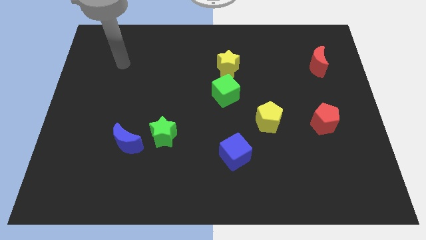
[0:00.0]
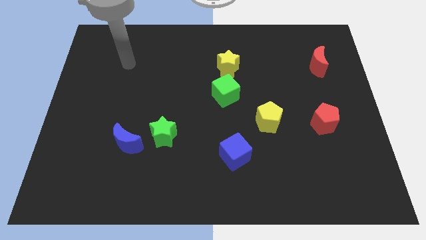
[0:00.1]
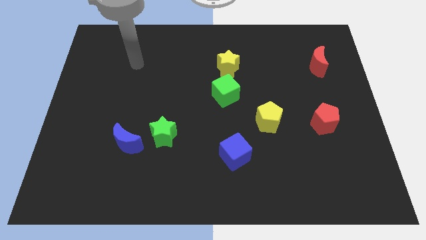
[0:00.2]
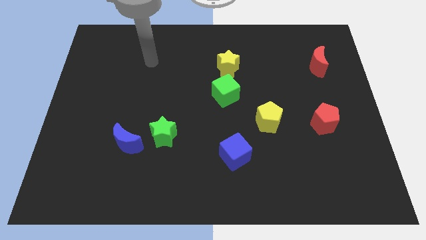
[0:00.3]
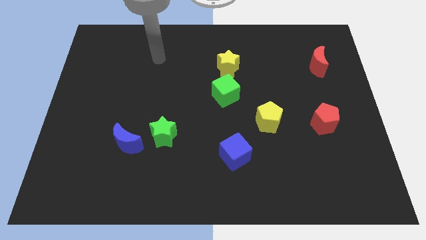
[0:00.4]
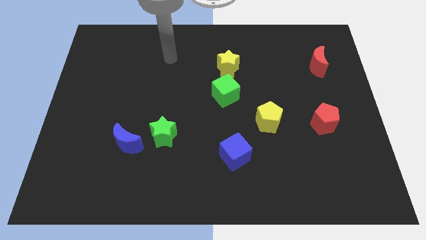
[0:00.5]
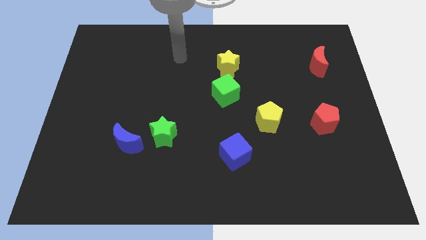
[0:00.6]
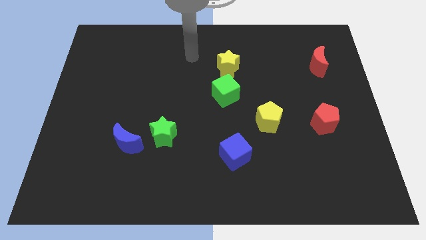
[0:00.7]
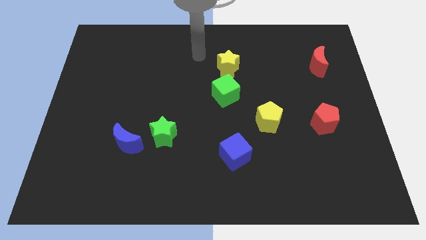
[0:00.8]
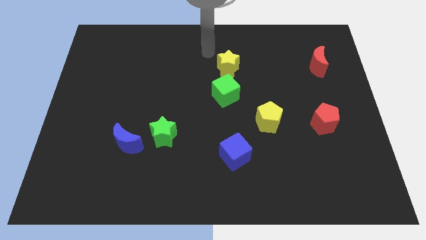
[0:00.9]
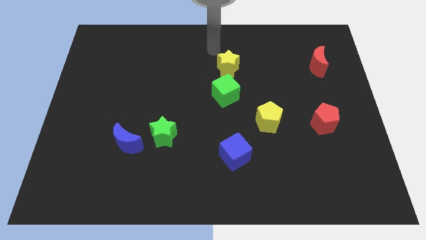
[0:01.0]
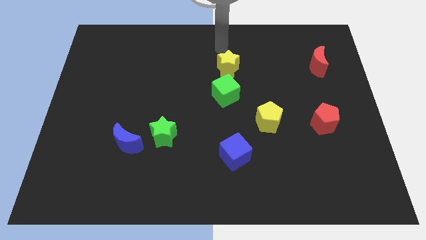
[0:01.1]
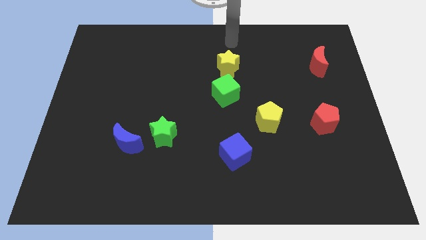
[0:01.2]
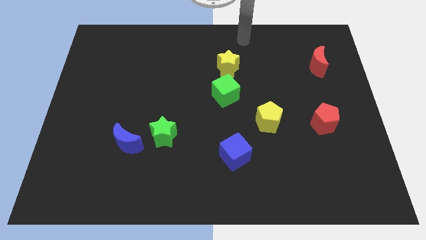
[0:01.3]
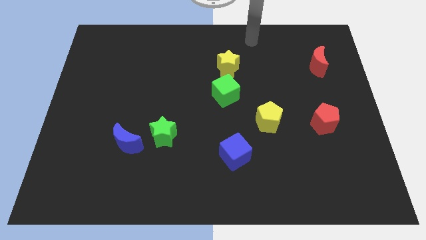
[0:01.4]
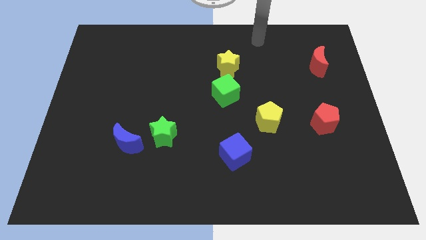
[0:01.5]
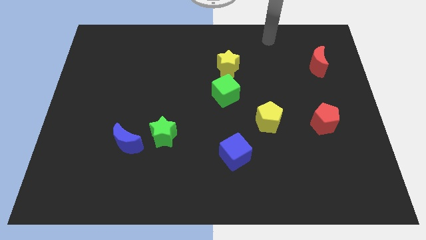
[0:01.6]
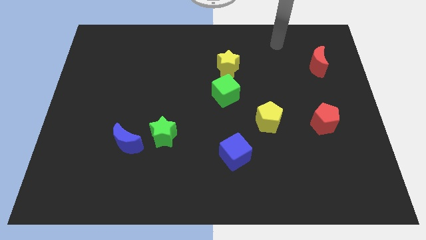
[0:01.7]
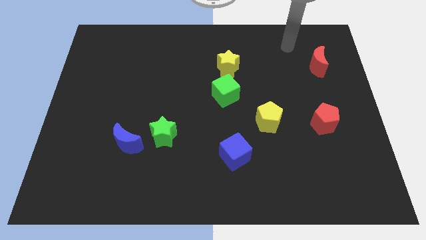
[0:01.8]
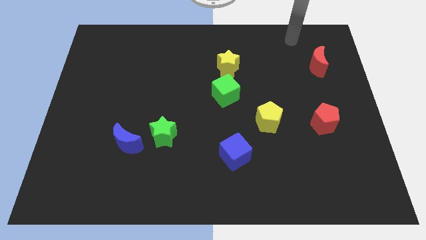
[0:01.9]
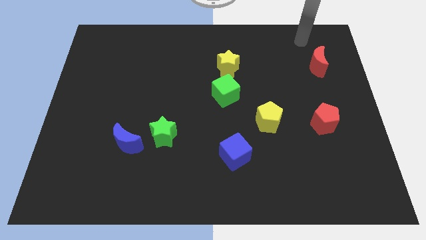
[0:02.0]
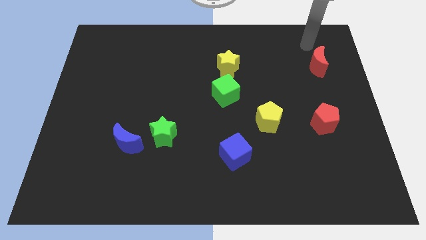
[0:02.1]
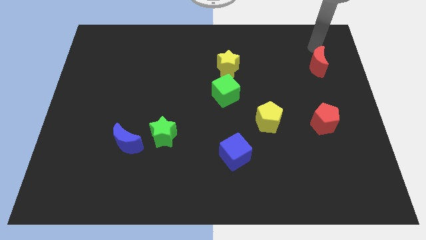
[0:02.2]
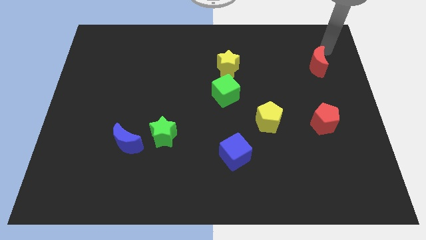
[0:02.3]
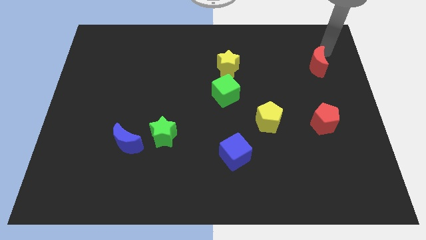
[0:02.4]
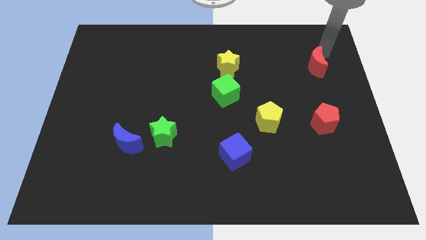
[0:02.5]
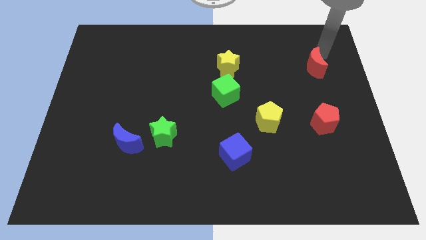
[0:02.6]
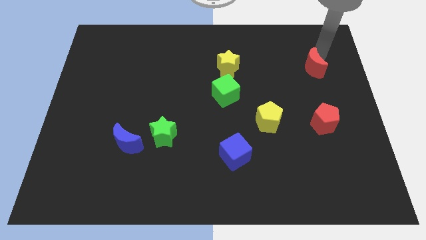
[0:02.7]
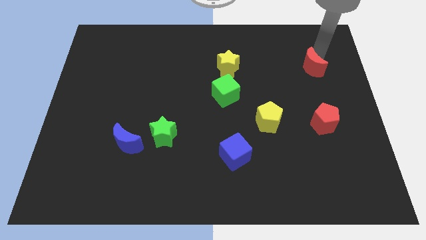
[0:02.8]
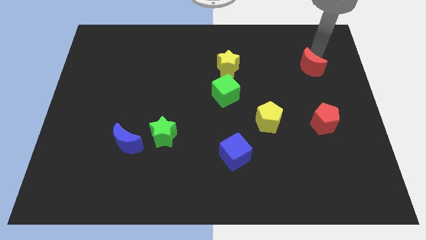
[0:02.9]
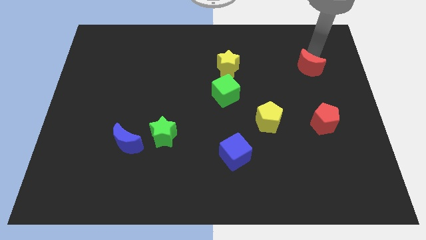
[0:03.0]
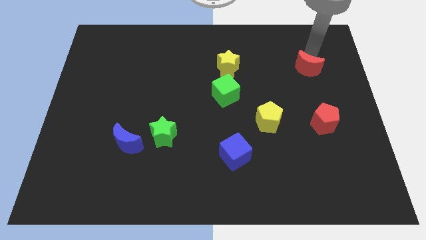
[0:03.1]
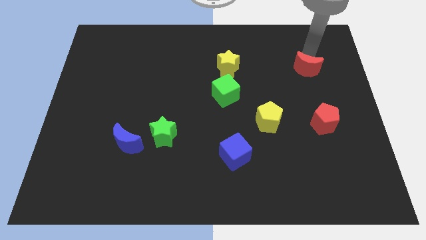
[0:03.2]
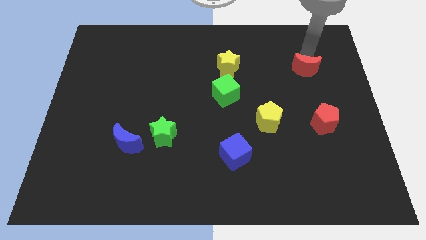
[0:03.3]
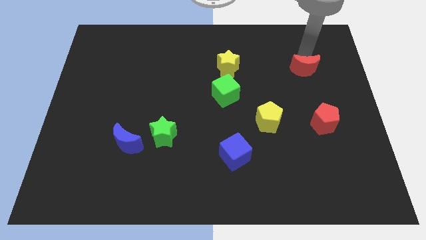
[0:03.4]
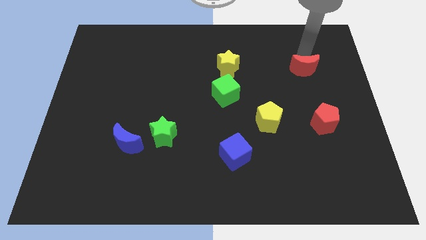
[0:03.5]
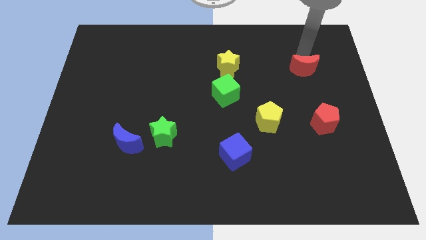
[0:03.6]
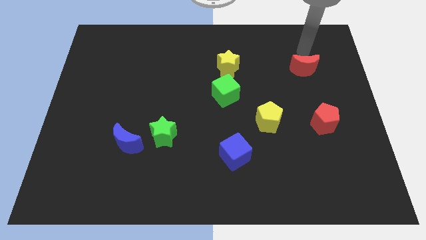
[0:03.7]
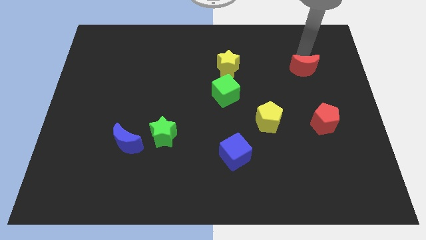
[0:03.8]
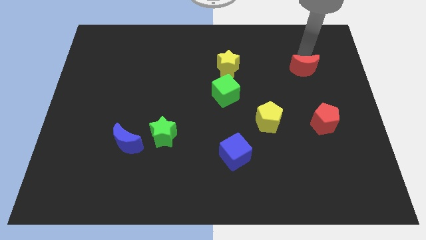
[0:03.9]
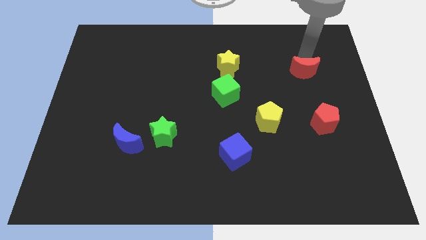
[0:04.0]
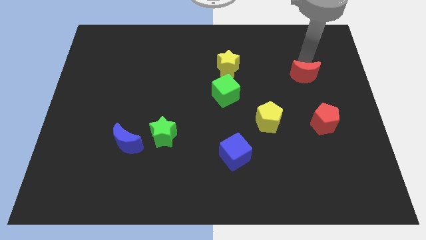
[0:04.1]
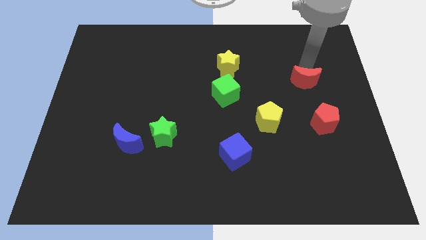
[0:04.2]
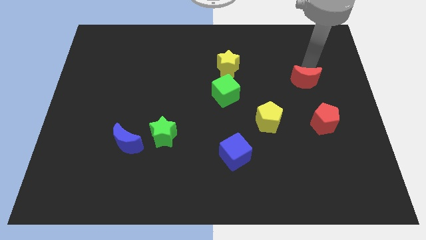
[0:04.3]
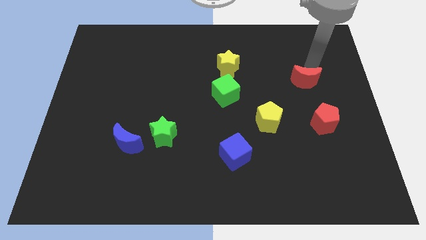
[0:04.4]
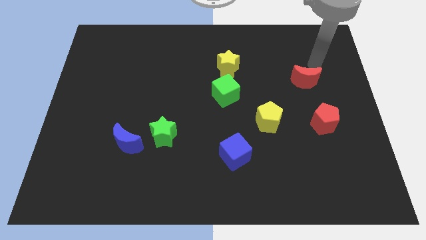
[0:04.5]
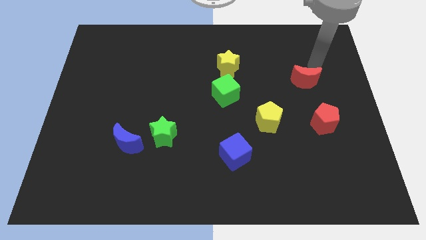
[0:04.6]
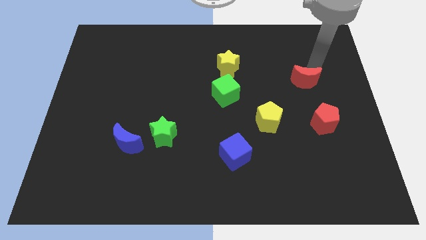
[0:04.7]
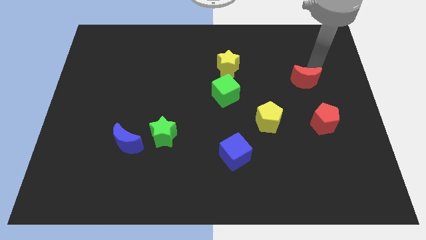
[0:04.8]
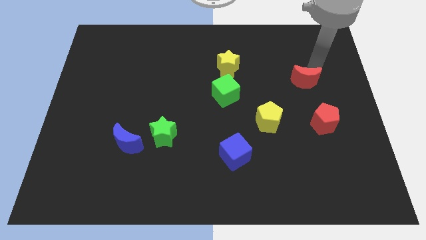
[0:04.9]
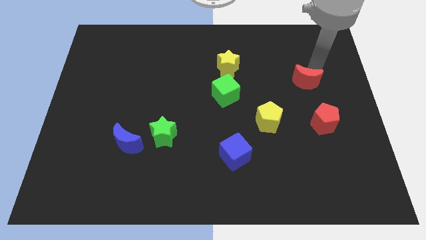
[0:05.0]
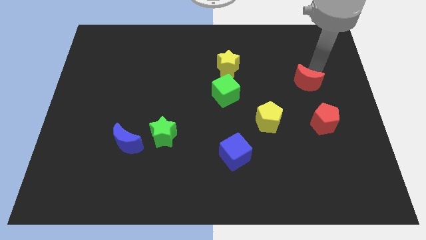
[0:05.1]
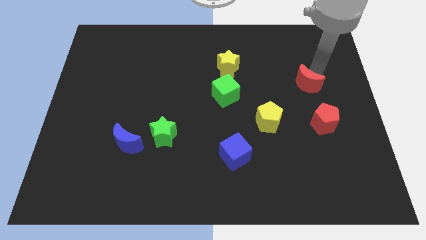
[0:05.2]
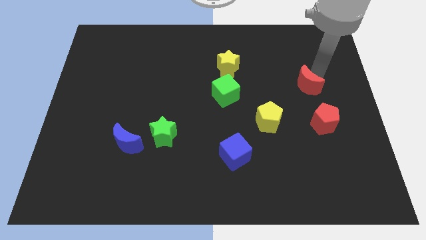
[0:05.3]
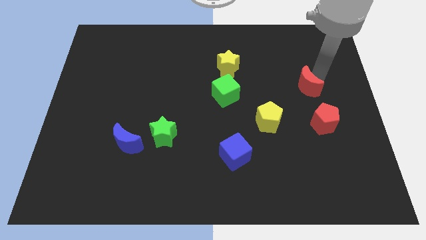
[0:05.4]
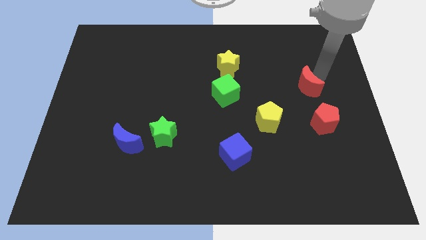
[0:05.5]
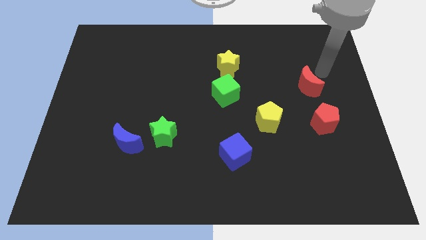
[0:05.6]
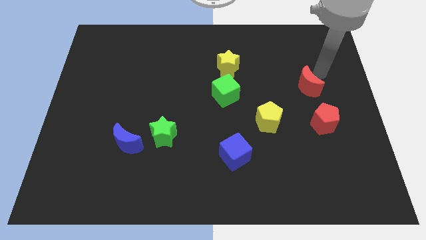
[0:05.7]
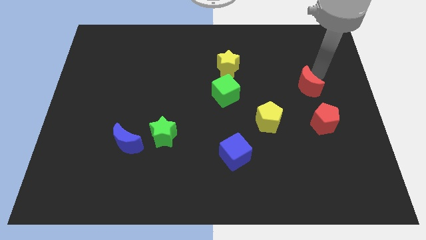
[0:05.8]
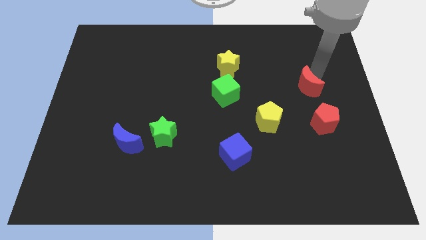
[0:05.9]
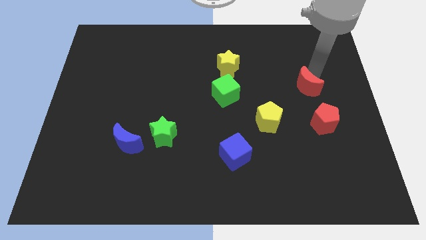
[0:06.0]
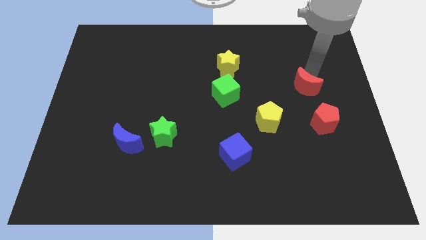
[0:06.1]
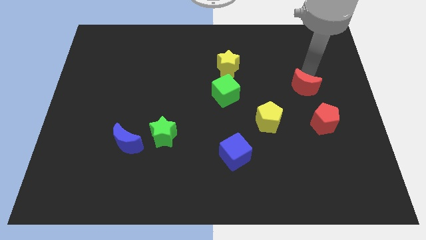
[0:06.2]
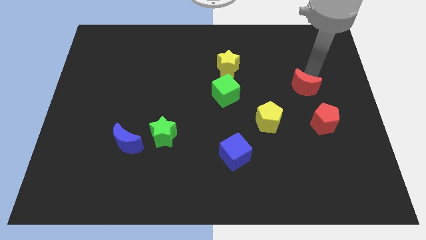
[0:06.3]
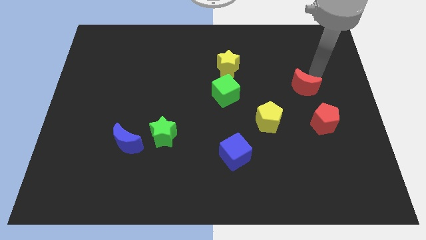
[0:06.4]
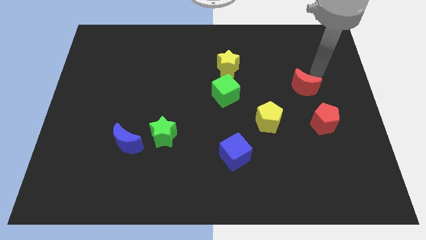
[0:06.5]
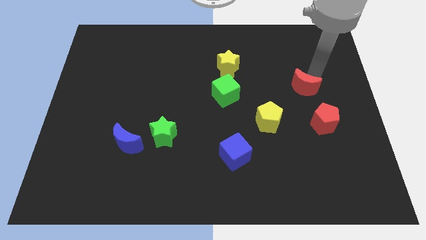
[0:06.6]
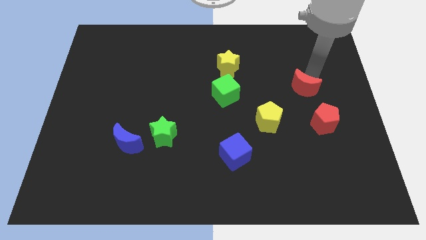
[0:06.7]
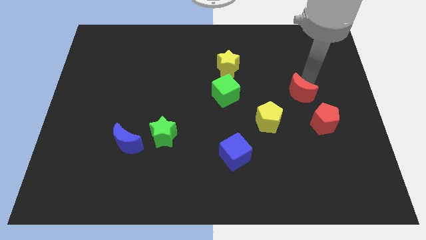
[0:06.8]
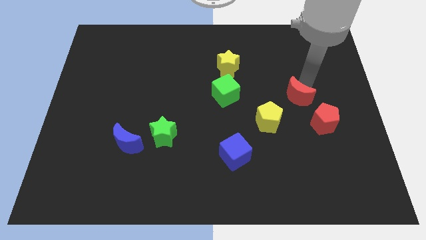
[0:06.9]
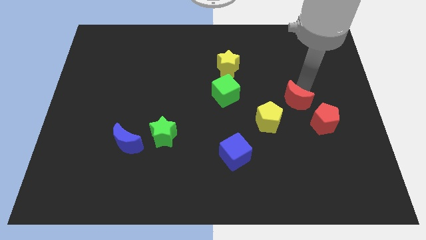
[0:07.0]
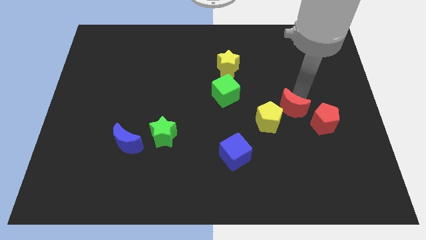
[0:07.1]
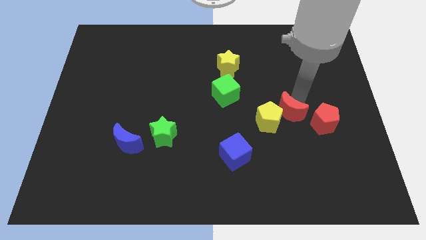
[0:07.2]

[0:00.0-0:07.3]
put the red moon to the yellow pentagon

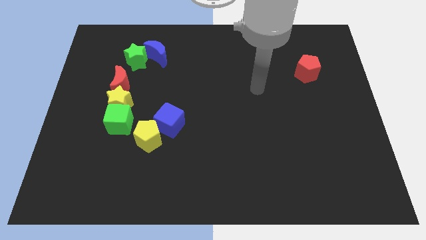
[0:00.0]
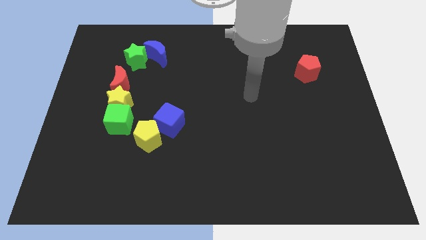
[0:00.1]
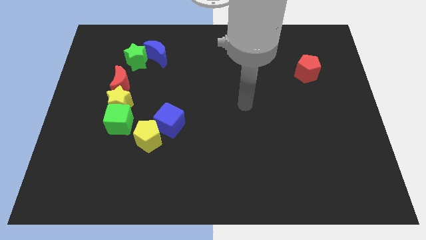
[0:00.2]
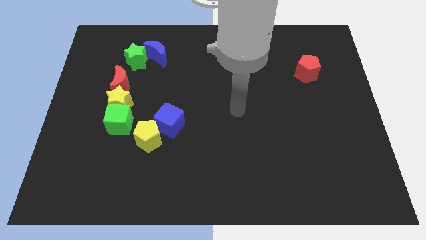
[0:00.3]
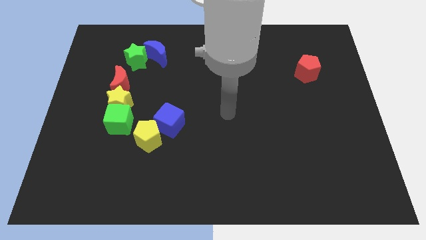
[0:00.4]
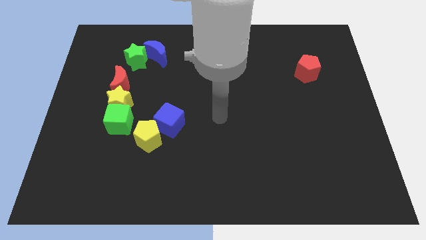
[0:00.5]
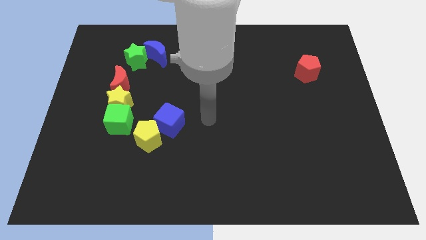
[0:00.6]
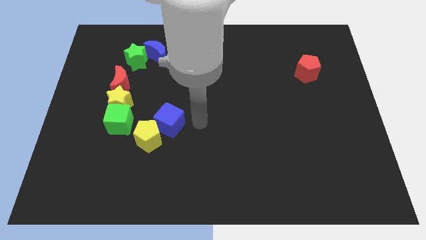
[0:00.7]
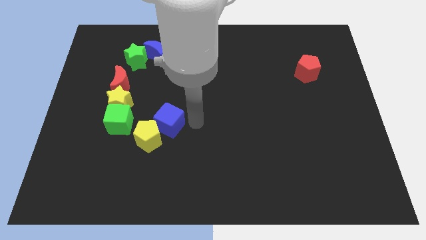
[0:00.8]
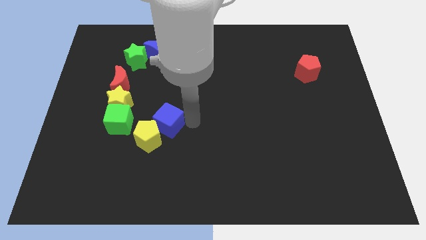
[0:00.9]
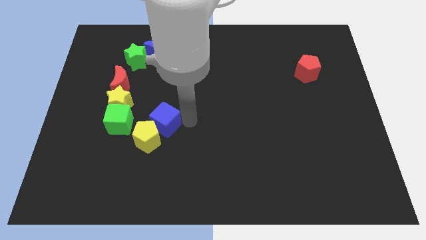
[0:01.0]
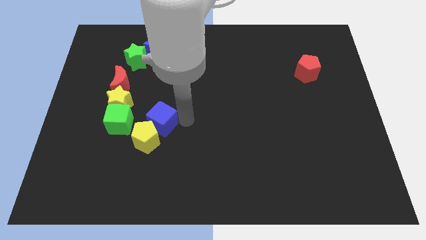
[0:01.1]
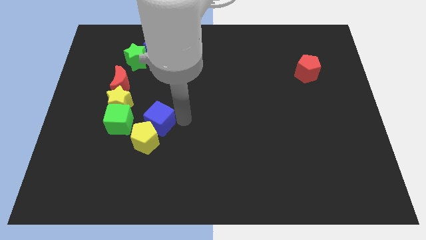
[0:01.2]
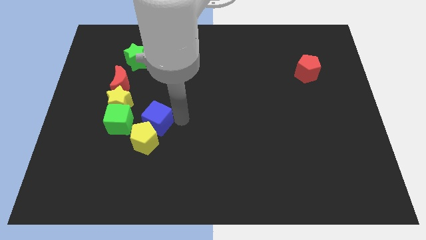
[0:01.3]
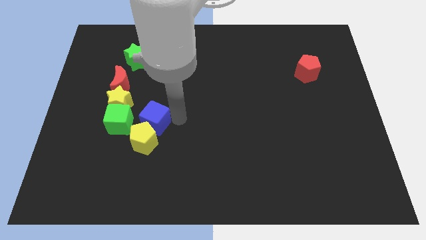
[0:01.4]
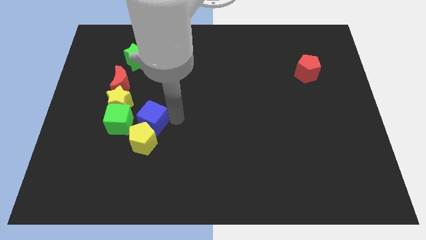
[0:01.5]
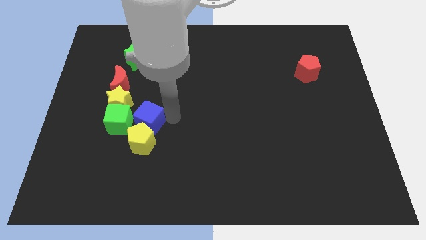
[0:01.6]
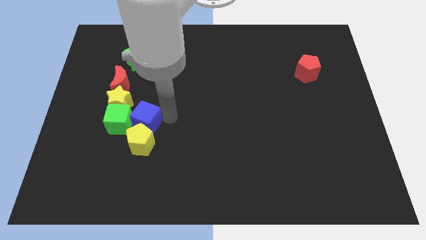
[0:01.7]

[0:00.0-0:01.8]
move the blue cube towards the green cube
